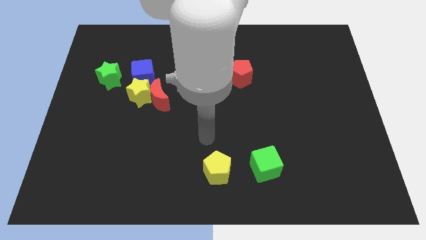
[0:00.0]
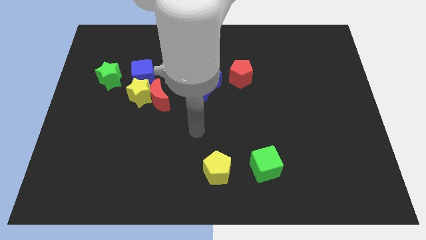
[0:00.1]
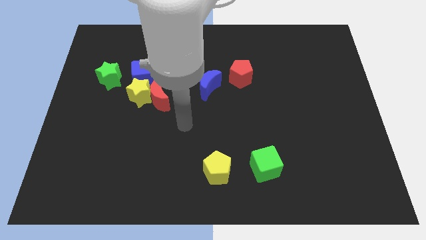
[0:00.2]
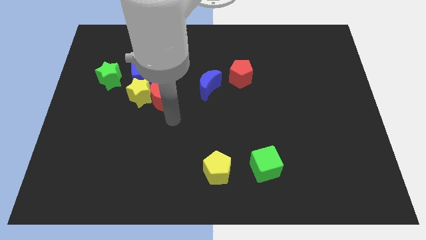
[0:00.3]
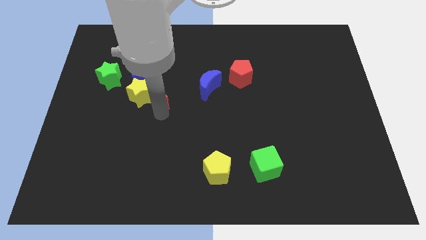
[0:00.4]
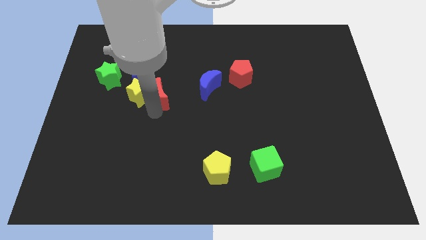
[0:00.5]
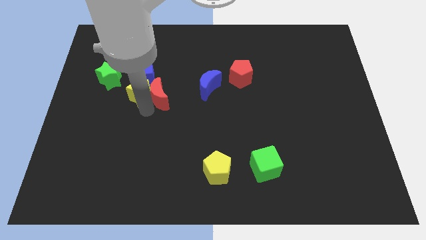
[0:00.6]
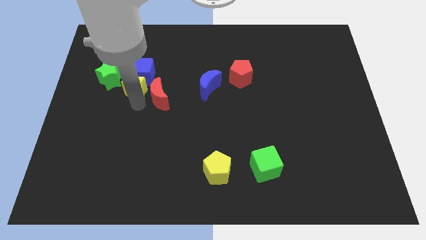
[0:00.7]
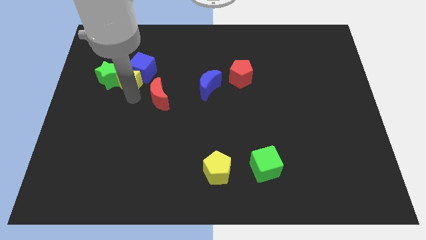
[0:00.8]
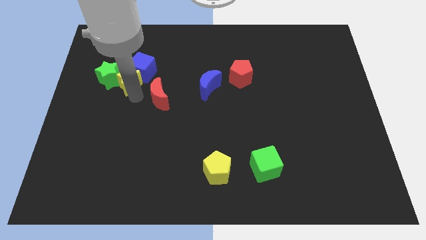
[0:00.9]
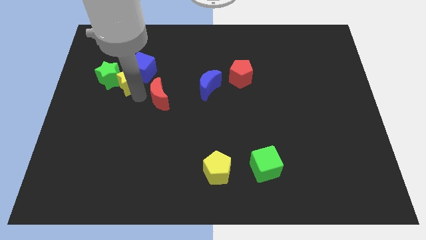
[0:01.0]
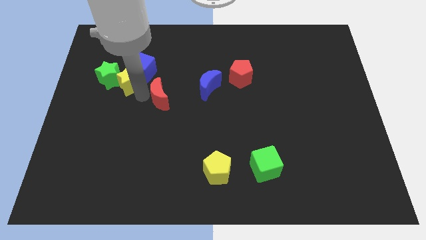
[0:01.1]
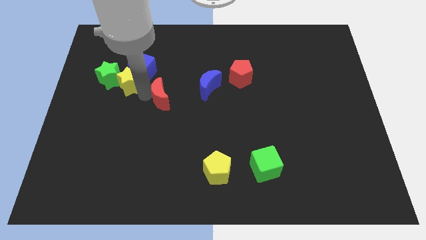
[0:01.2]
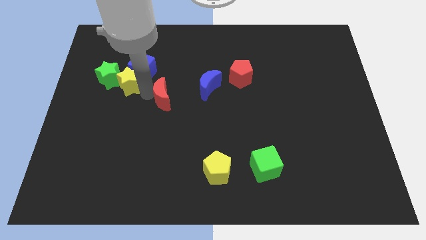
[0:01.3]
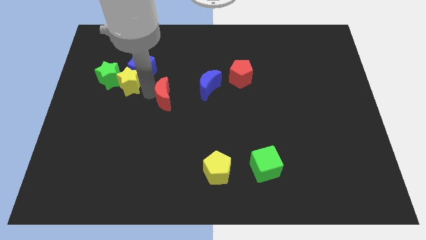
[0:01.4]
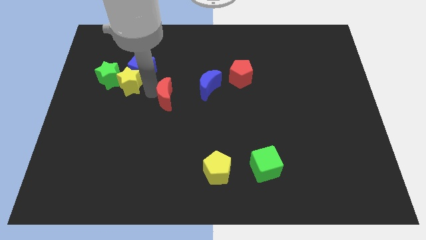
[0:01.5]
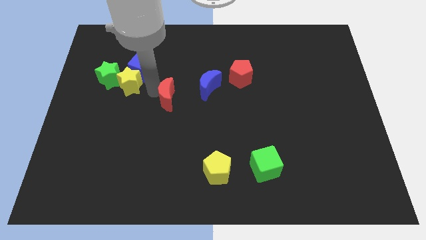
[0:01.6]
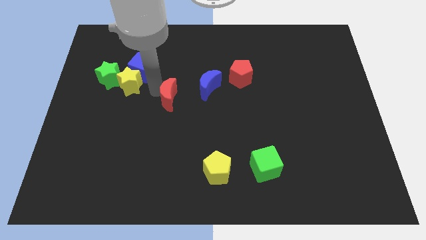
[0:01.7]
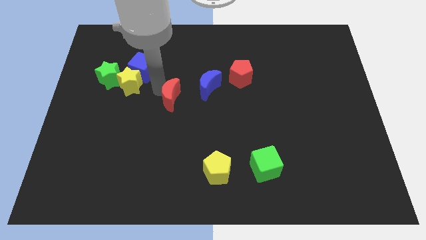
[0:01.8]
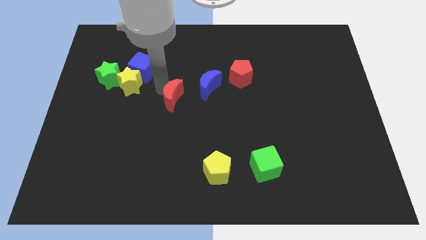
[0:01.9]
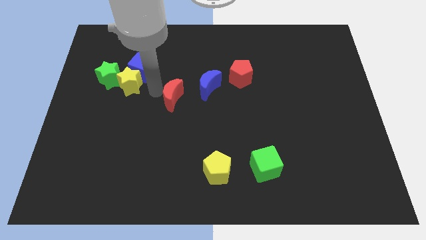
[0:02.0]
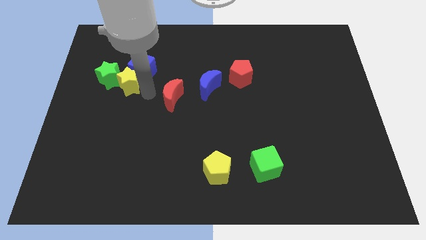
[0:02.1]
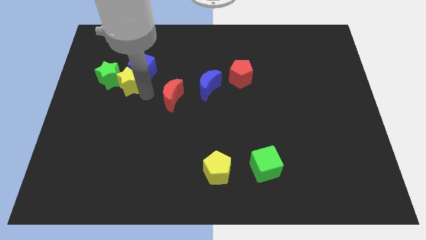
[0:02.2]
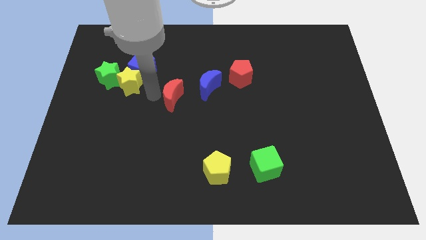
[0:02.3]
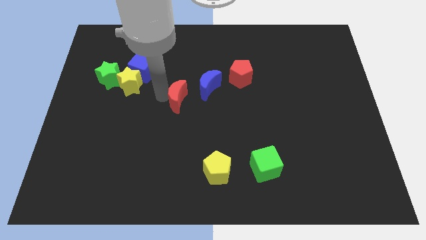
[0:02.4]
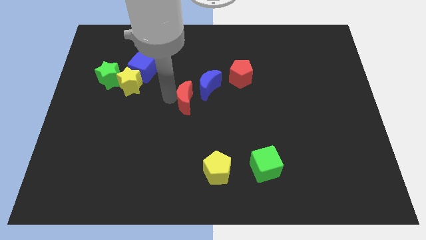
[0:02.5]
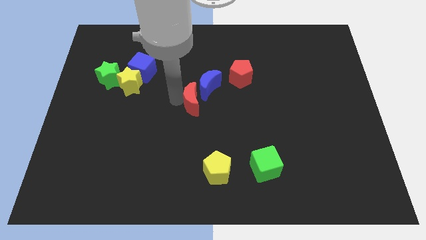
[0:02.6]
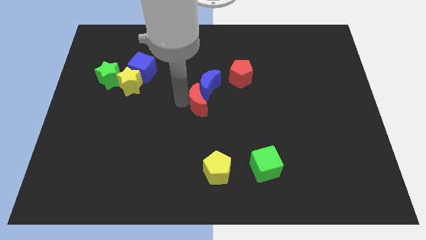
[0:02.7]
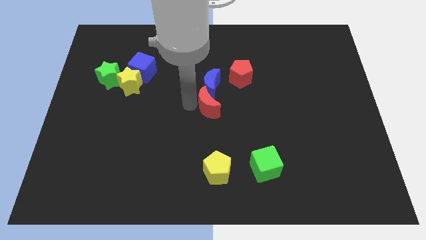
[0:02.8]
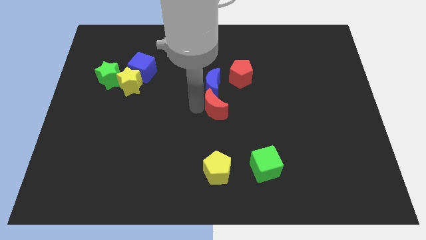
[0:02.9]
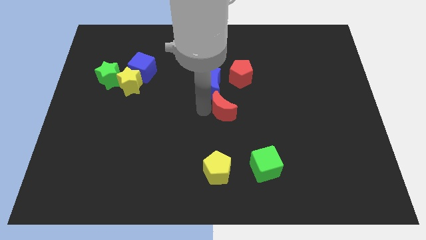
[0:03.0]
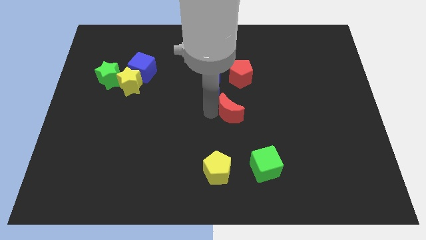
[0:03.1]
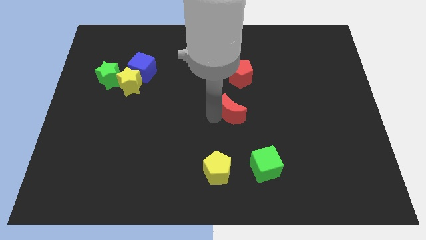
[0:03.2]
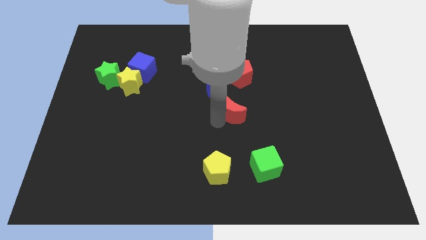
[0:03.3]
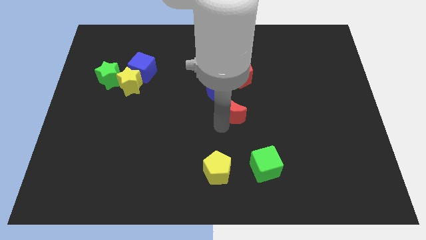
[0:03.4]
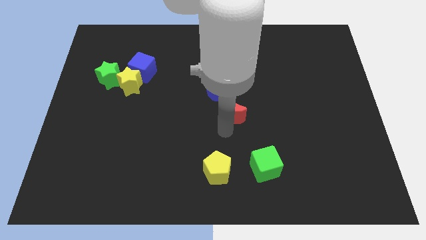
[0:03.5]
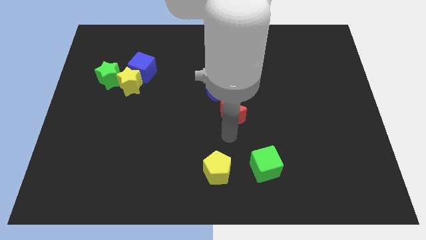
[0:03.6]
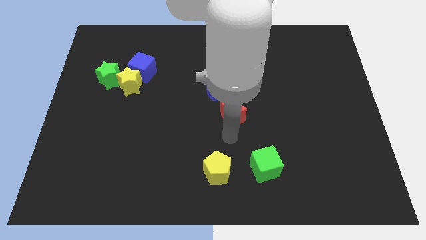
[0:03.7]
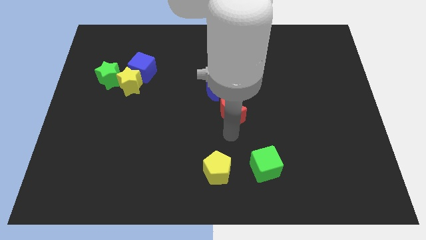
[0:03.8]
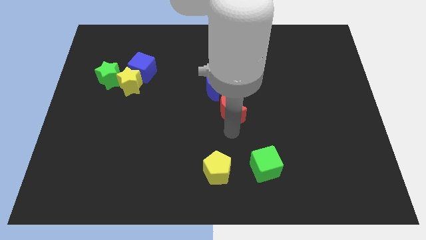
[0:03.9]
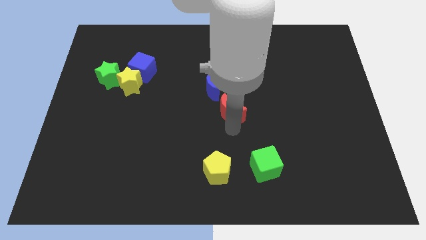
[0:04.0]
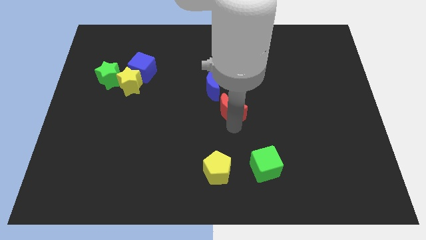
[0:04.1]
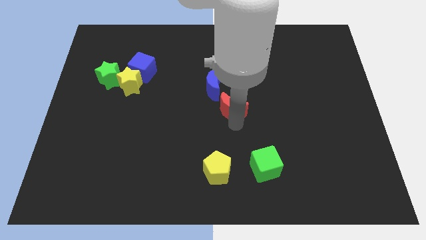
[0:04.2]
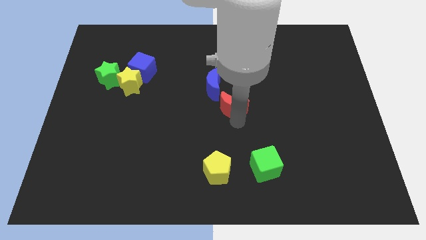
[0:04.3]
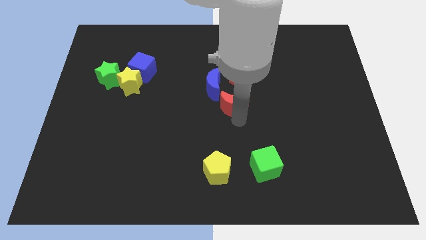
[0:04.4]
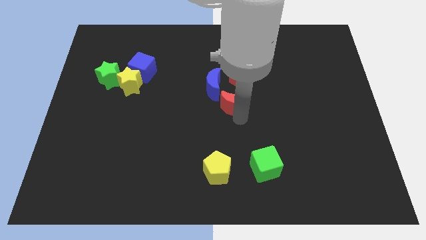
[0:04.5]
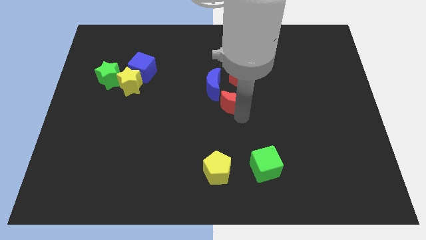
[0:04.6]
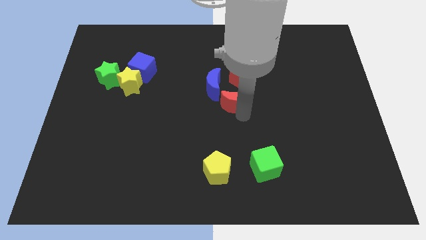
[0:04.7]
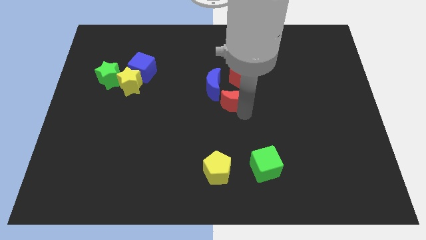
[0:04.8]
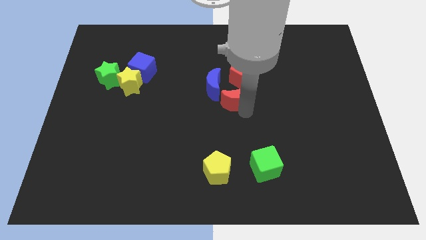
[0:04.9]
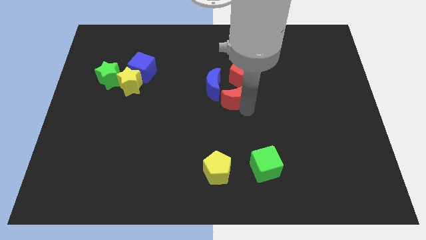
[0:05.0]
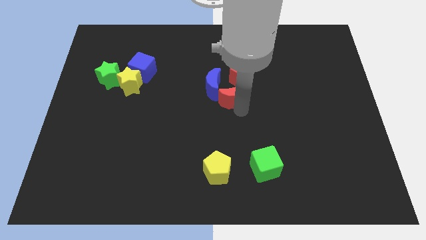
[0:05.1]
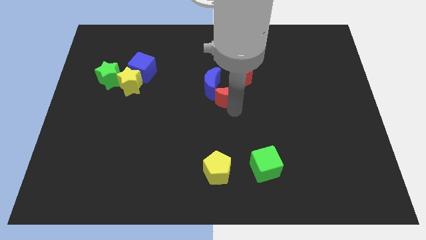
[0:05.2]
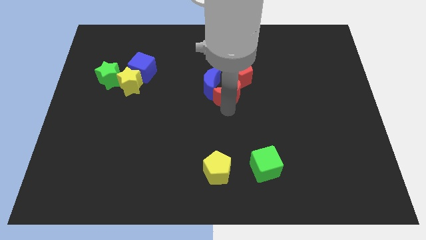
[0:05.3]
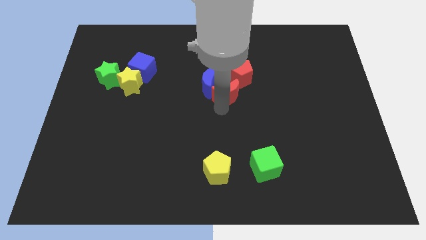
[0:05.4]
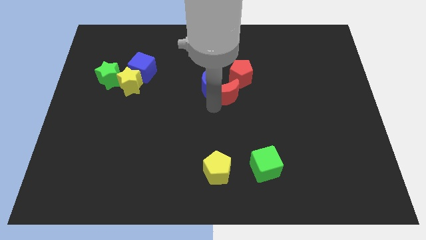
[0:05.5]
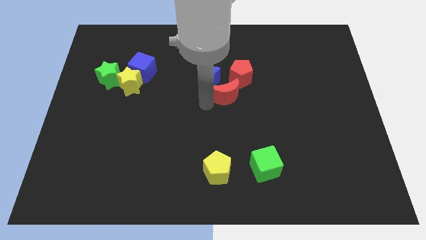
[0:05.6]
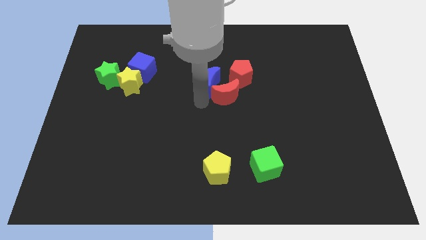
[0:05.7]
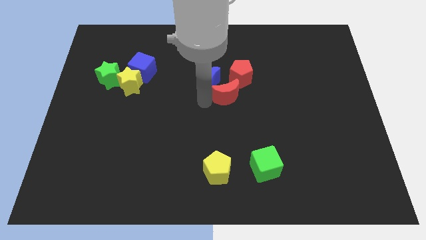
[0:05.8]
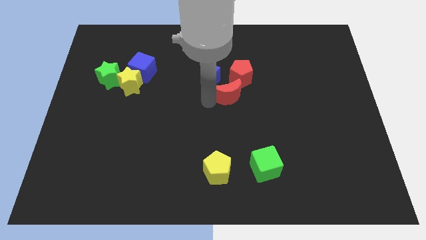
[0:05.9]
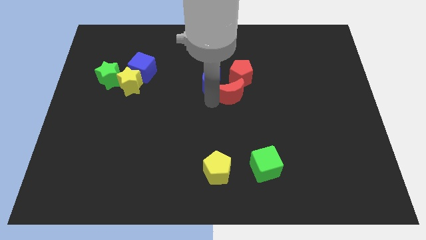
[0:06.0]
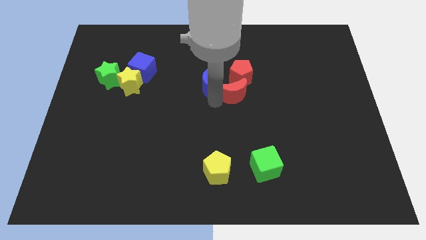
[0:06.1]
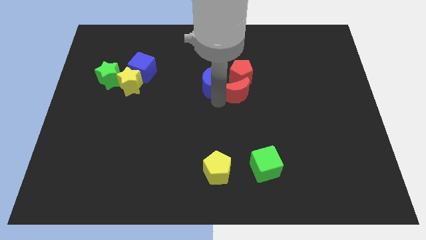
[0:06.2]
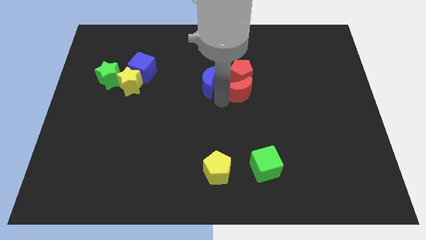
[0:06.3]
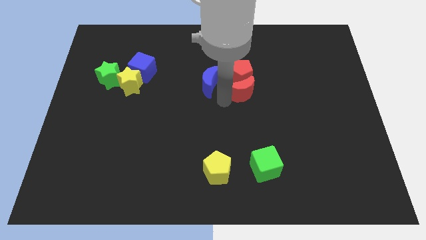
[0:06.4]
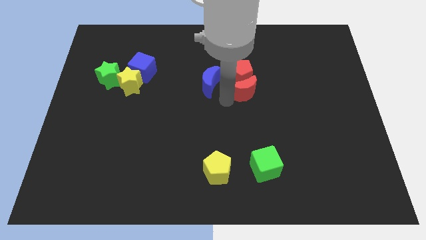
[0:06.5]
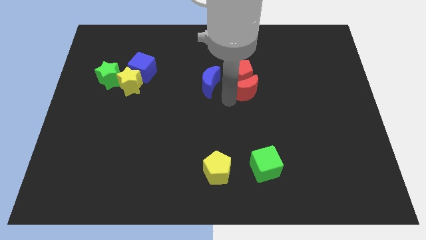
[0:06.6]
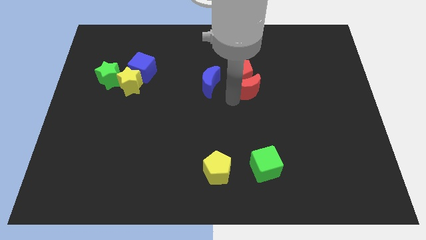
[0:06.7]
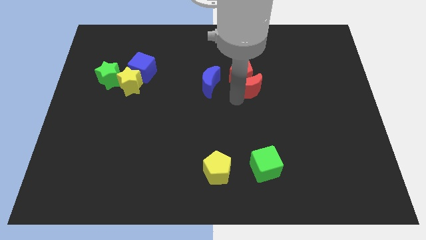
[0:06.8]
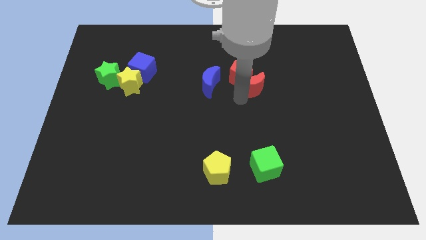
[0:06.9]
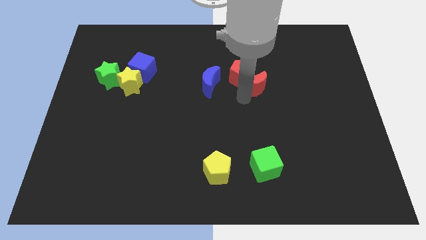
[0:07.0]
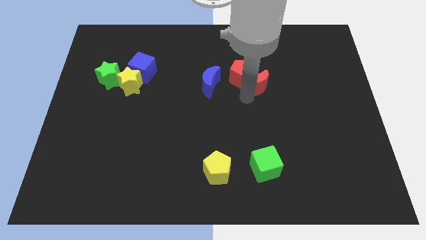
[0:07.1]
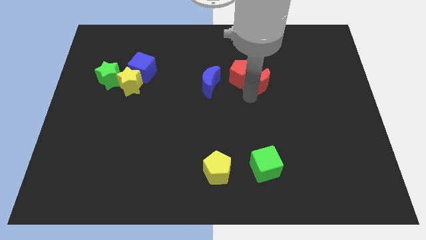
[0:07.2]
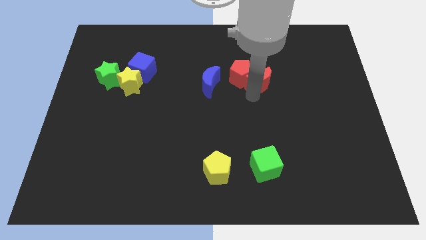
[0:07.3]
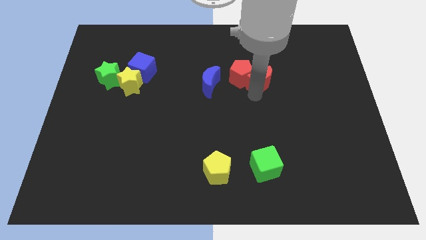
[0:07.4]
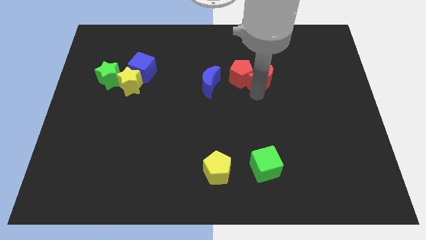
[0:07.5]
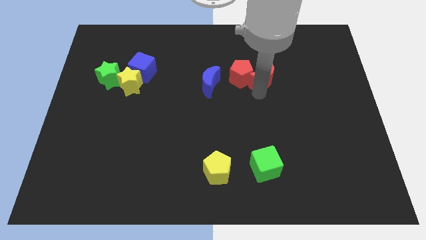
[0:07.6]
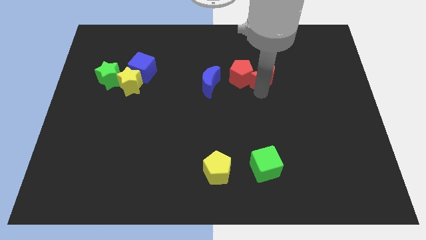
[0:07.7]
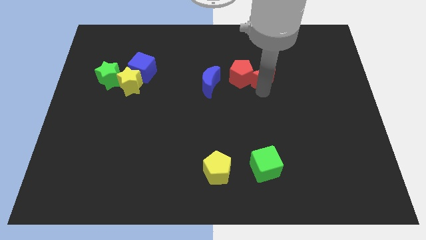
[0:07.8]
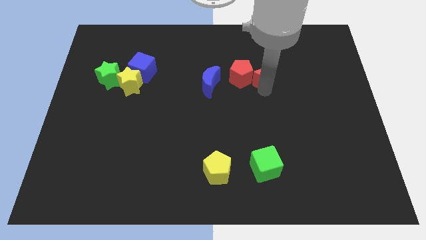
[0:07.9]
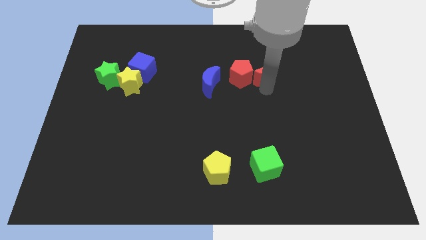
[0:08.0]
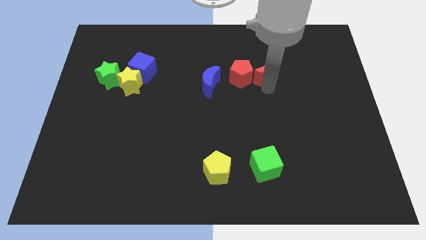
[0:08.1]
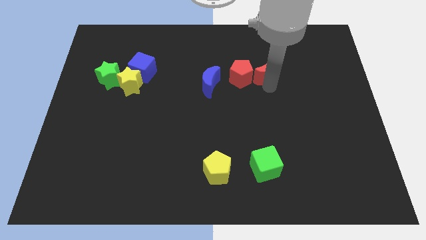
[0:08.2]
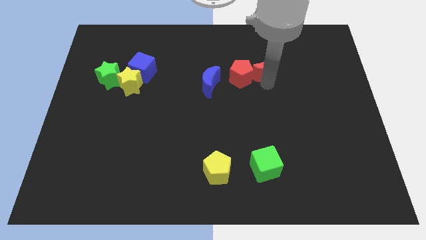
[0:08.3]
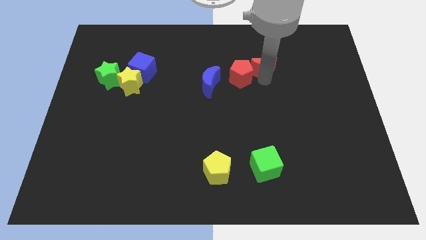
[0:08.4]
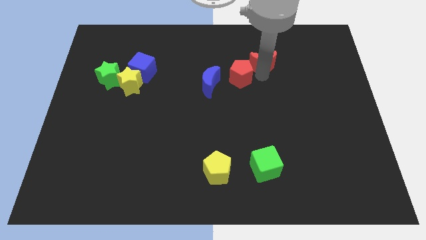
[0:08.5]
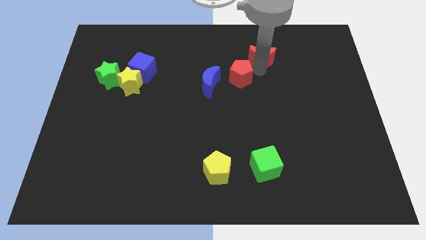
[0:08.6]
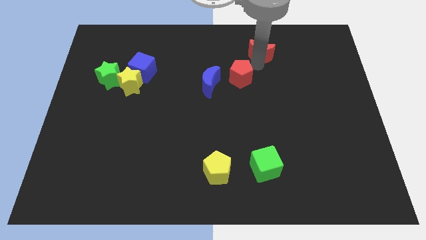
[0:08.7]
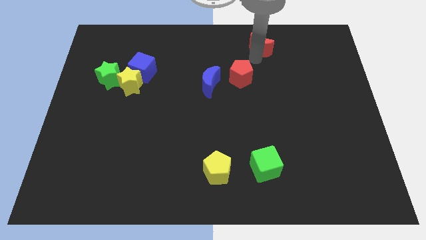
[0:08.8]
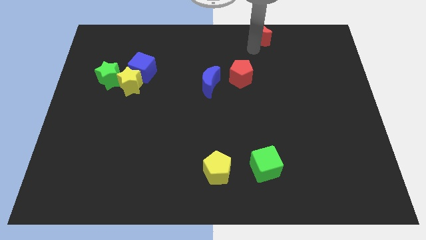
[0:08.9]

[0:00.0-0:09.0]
move the red moon to the top side
